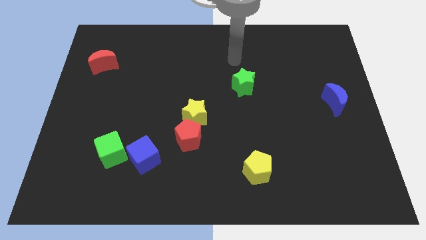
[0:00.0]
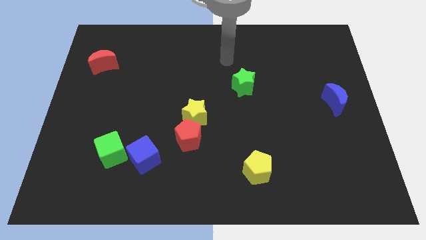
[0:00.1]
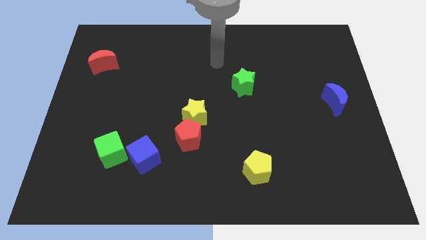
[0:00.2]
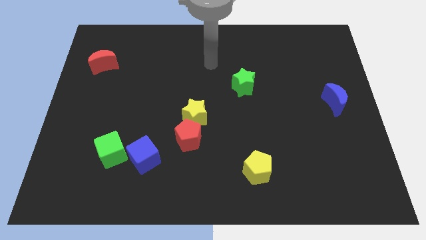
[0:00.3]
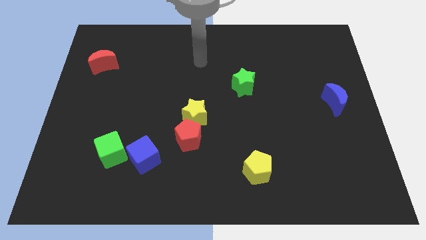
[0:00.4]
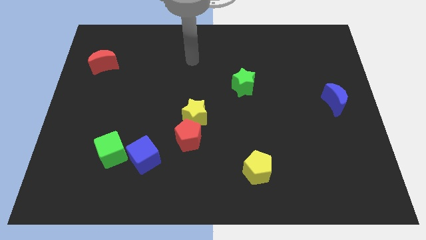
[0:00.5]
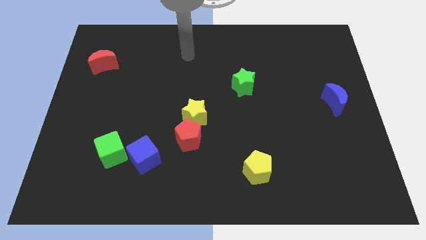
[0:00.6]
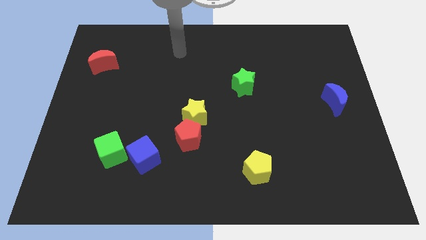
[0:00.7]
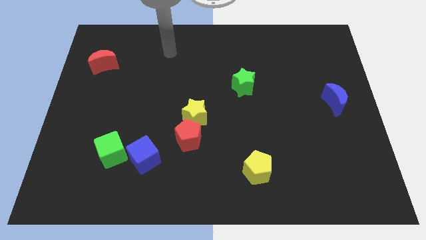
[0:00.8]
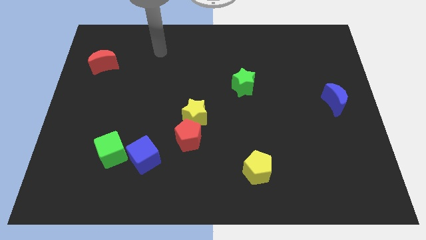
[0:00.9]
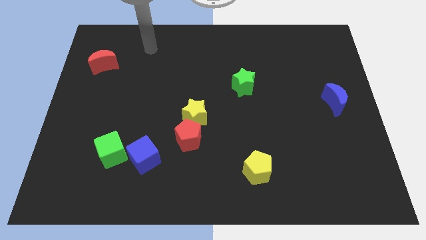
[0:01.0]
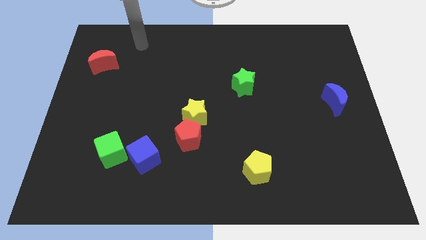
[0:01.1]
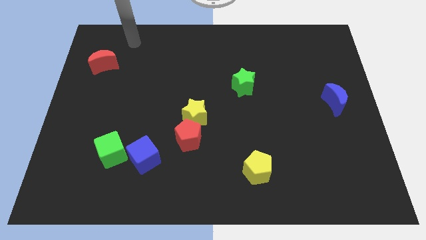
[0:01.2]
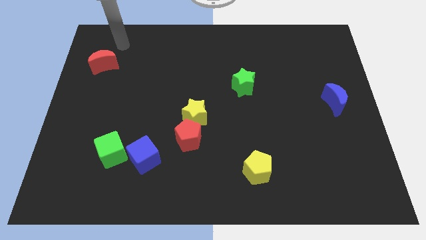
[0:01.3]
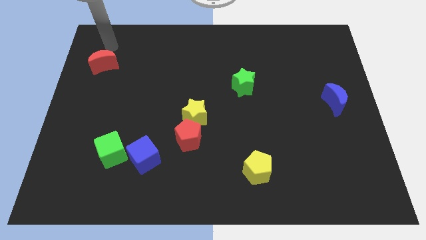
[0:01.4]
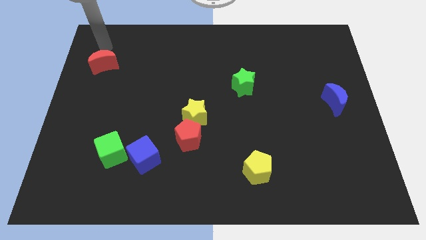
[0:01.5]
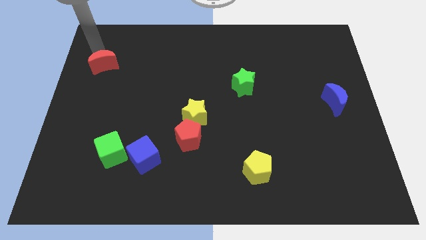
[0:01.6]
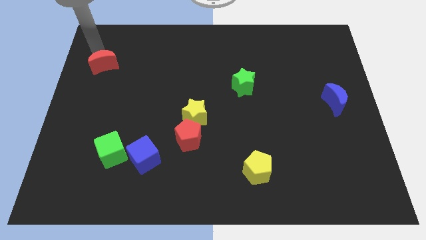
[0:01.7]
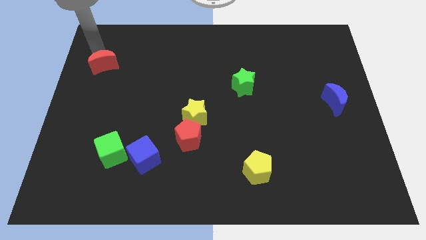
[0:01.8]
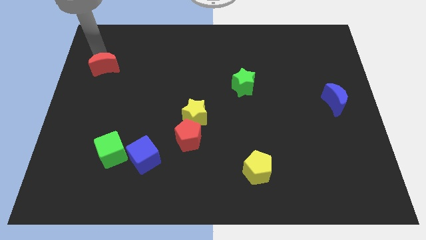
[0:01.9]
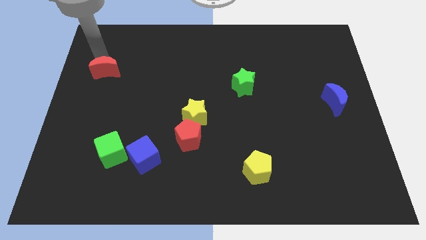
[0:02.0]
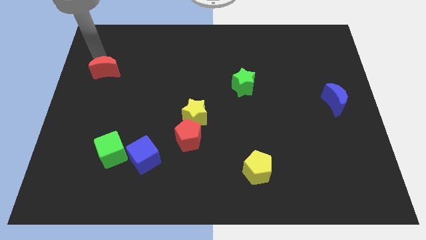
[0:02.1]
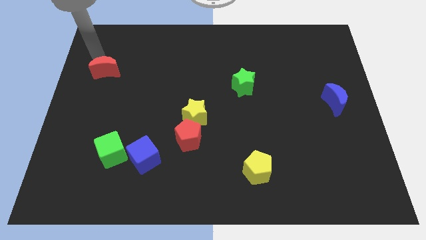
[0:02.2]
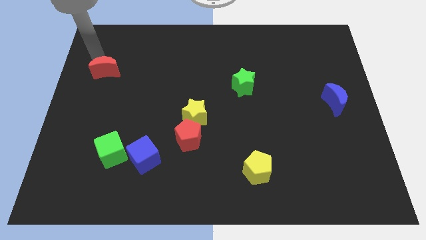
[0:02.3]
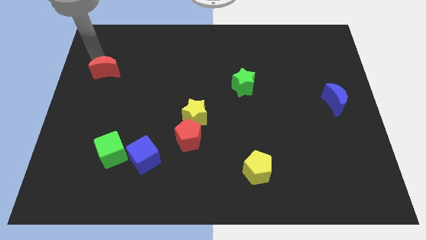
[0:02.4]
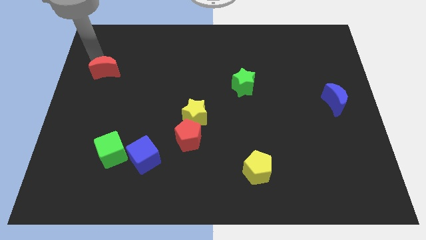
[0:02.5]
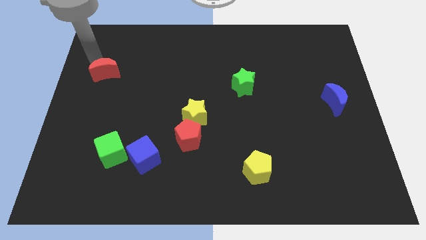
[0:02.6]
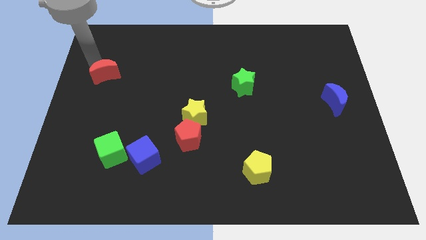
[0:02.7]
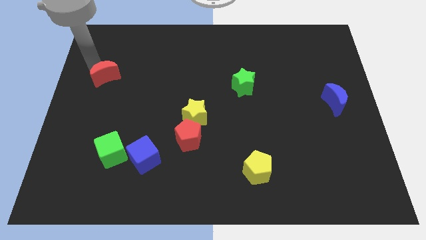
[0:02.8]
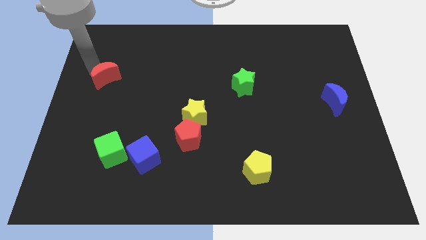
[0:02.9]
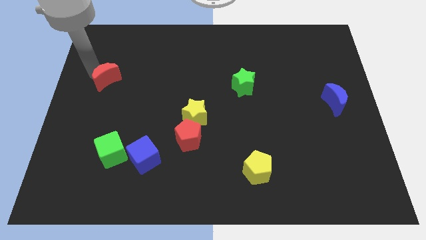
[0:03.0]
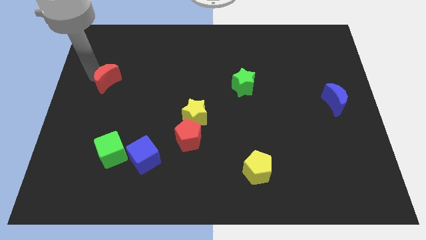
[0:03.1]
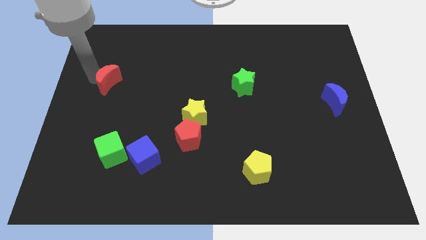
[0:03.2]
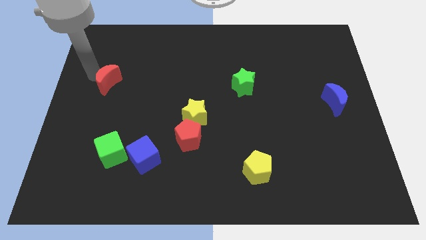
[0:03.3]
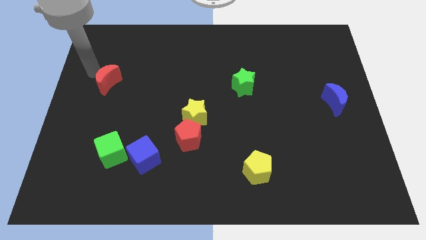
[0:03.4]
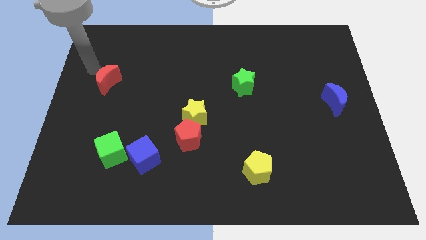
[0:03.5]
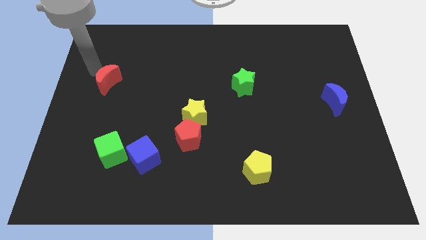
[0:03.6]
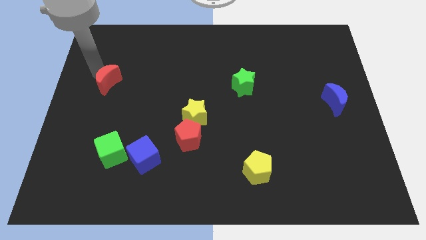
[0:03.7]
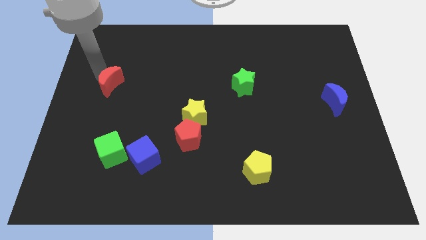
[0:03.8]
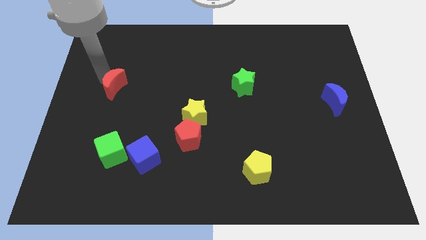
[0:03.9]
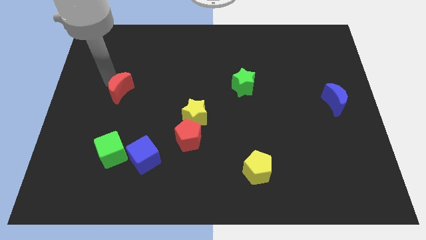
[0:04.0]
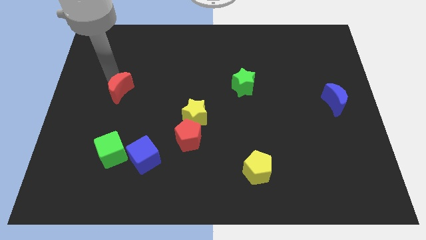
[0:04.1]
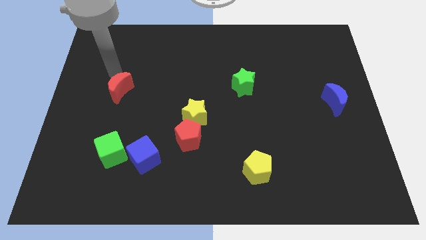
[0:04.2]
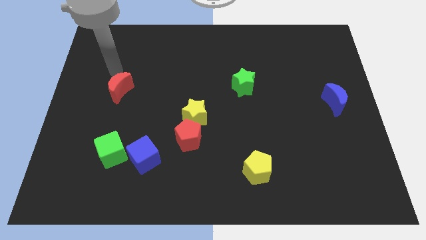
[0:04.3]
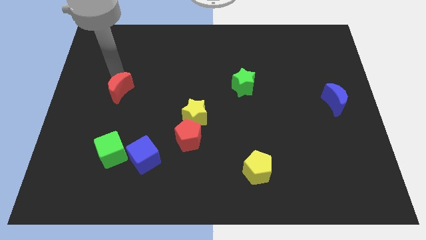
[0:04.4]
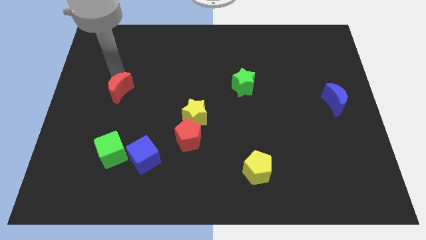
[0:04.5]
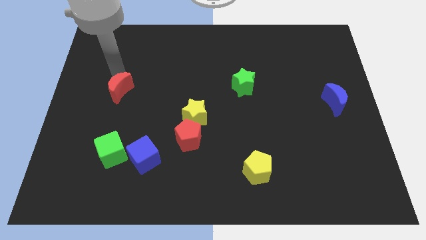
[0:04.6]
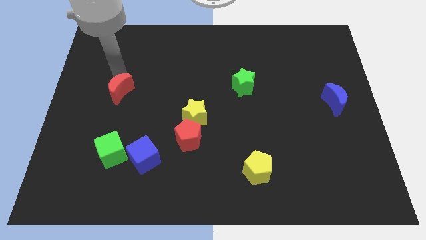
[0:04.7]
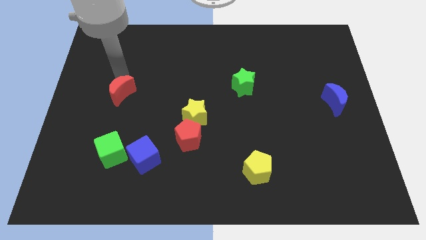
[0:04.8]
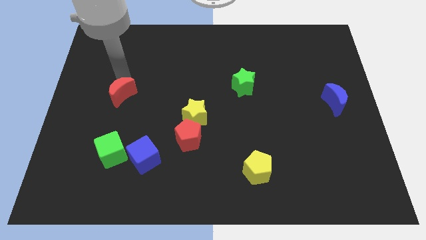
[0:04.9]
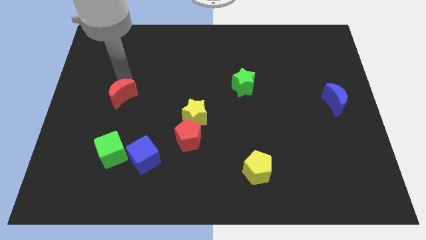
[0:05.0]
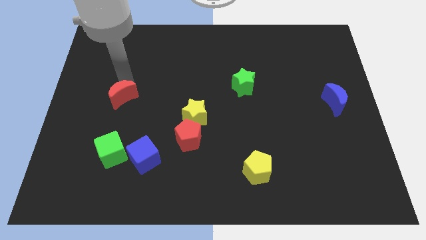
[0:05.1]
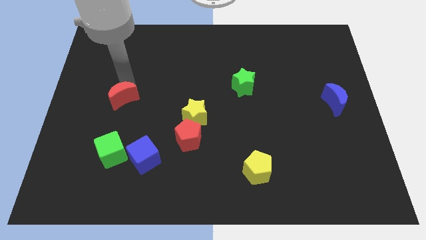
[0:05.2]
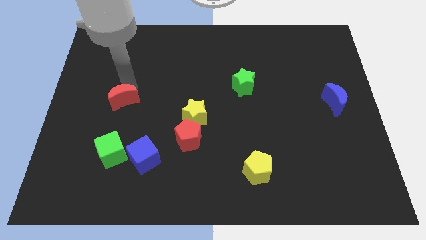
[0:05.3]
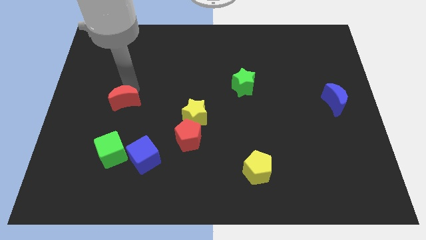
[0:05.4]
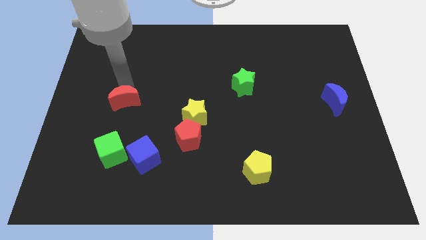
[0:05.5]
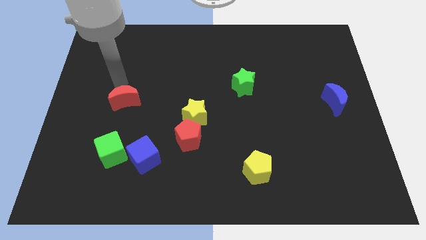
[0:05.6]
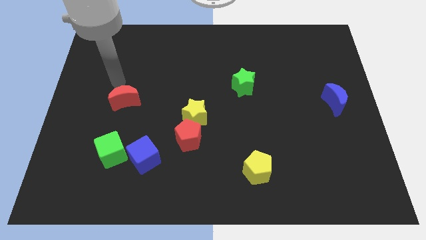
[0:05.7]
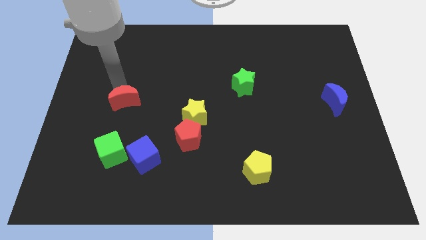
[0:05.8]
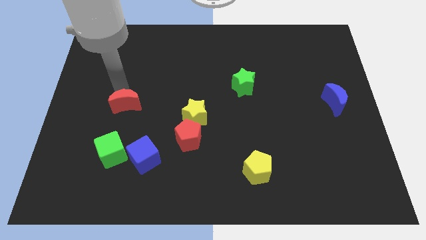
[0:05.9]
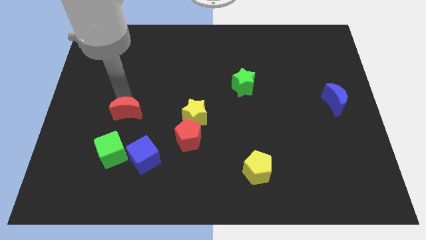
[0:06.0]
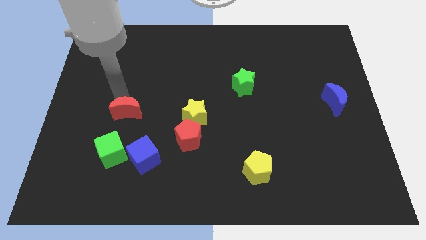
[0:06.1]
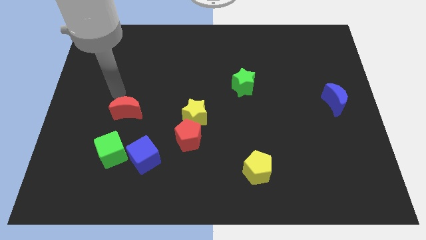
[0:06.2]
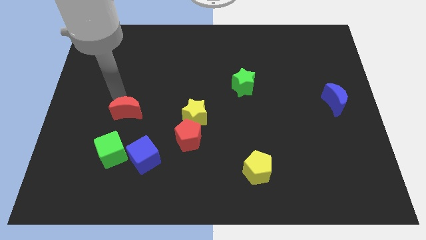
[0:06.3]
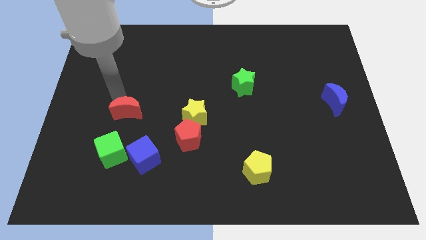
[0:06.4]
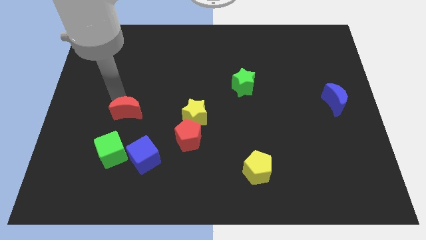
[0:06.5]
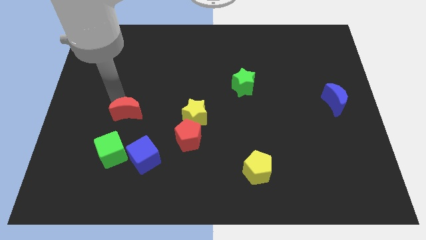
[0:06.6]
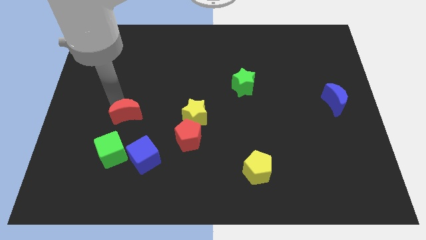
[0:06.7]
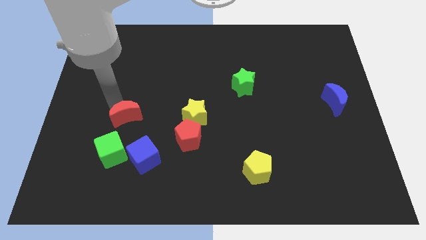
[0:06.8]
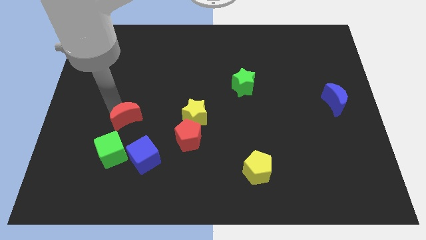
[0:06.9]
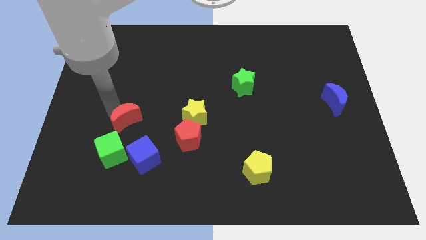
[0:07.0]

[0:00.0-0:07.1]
slide the red moon to the top right of the green cube

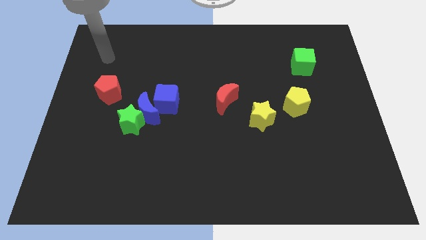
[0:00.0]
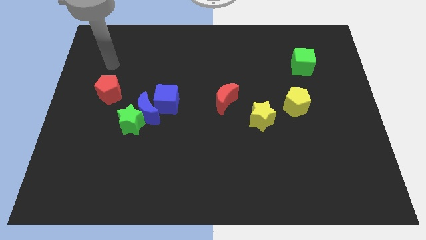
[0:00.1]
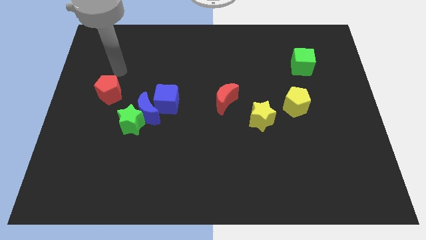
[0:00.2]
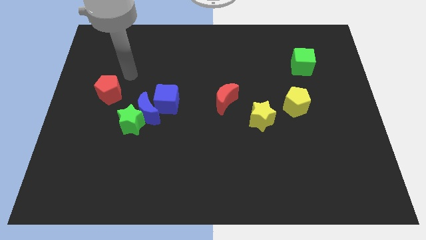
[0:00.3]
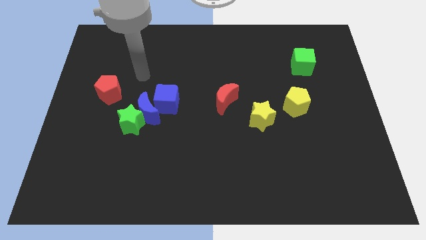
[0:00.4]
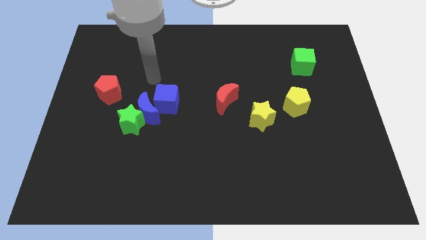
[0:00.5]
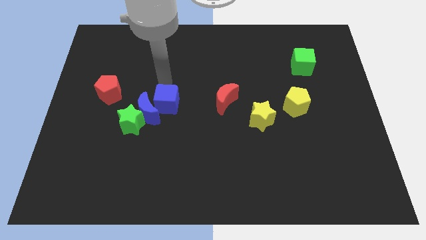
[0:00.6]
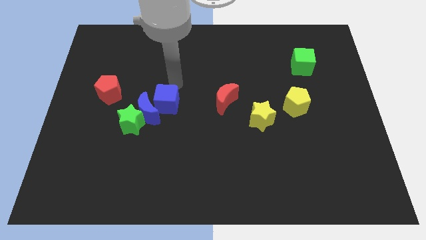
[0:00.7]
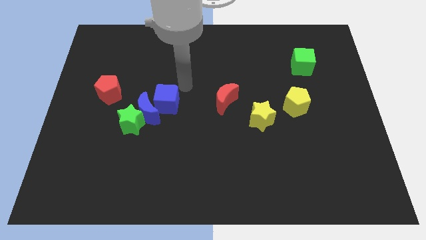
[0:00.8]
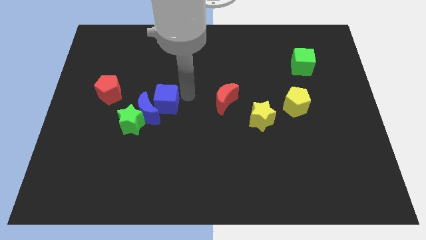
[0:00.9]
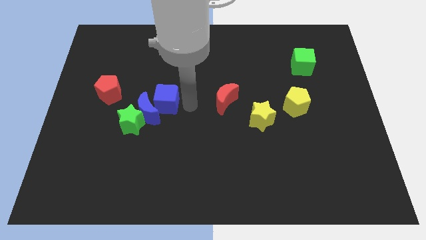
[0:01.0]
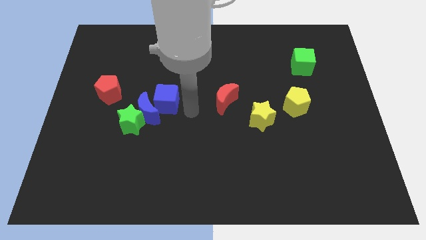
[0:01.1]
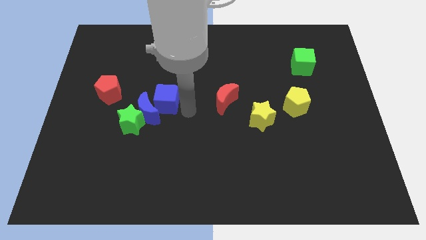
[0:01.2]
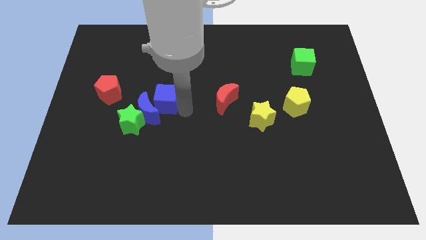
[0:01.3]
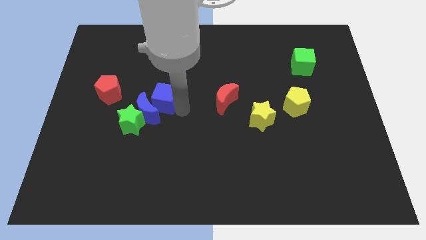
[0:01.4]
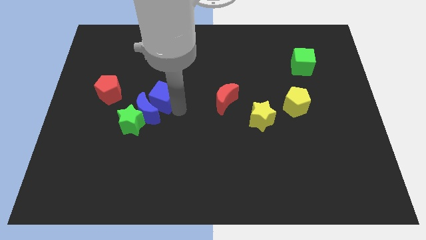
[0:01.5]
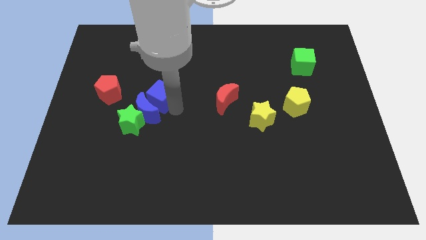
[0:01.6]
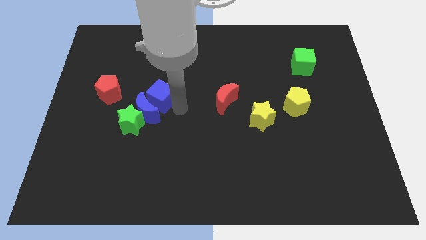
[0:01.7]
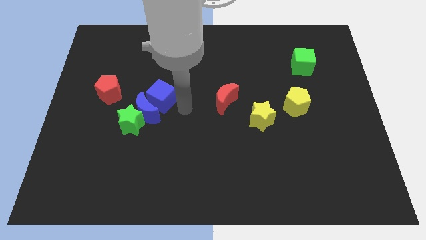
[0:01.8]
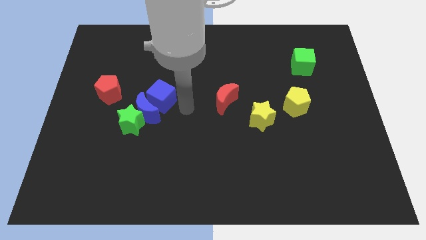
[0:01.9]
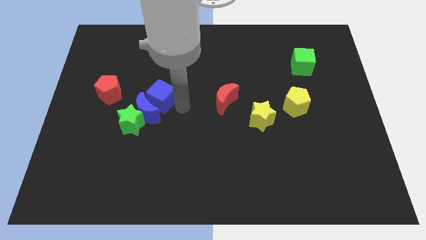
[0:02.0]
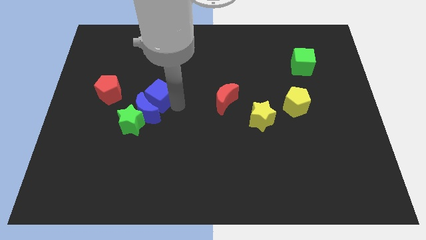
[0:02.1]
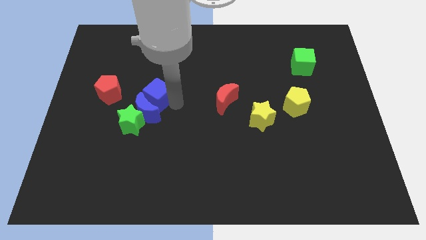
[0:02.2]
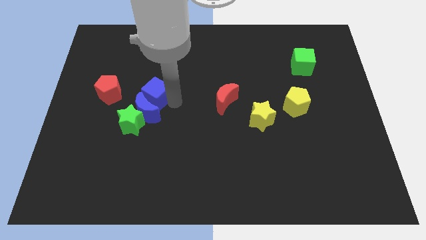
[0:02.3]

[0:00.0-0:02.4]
slide the blue cube to the top left side of the blue moon
